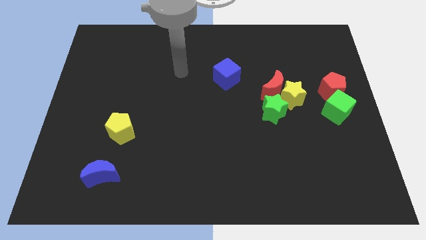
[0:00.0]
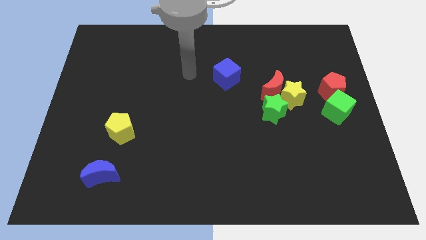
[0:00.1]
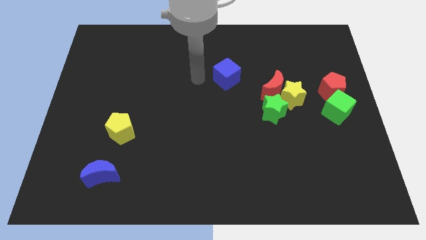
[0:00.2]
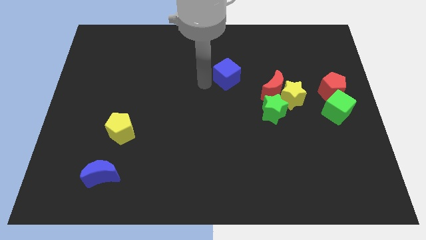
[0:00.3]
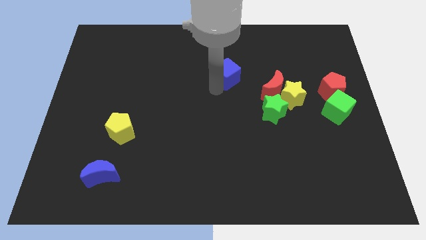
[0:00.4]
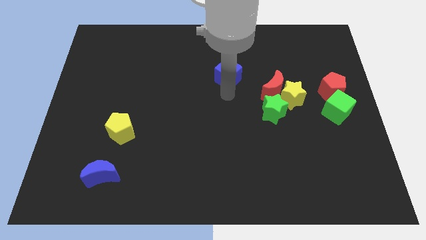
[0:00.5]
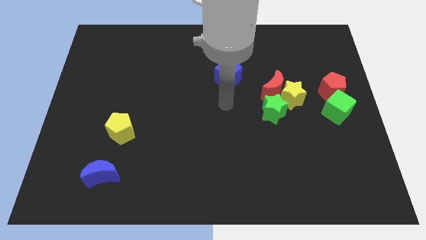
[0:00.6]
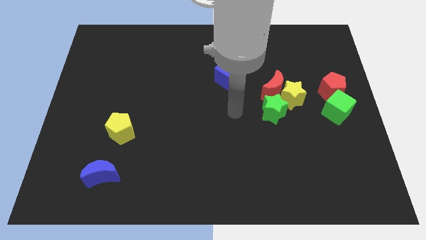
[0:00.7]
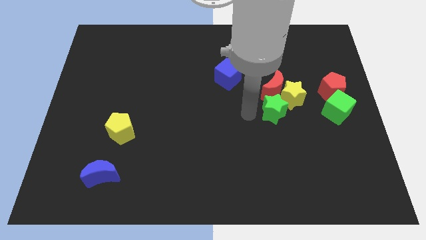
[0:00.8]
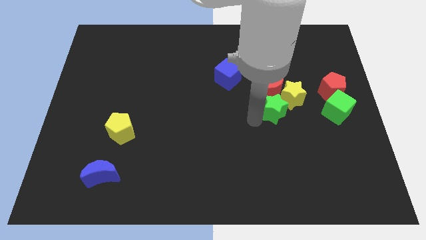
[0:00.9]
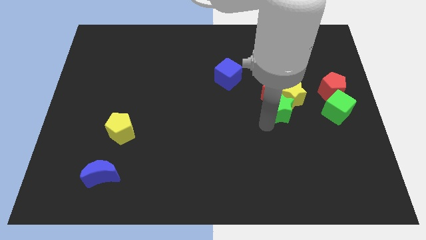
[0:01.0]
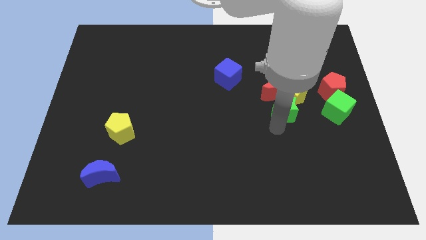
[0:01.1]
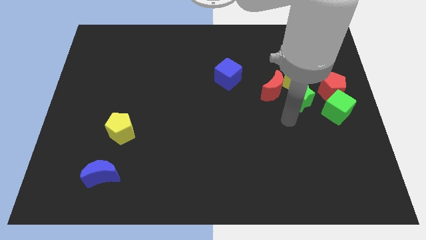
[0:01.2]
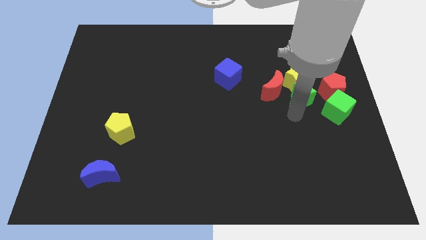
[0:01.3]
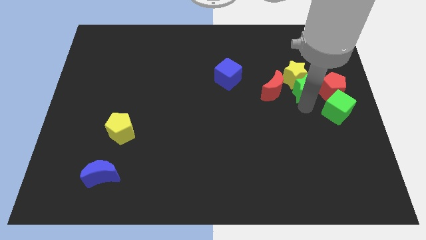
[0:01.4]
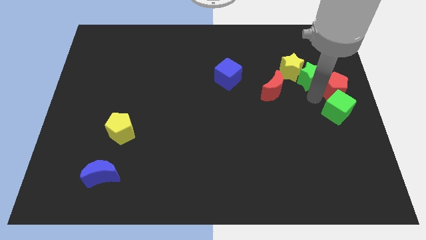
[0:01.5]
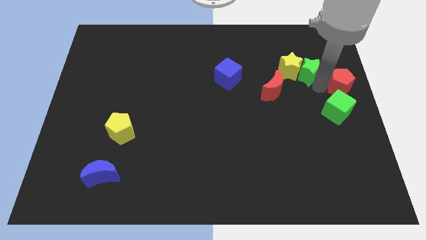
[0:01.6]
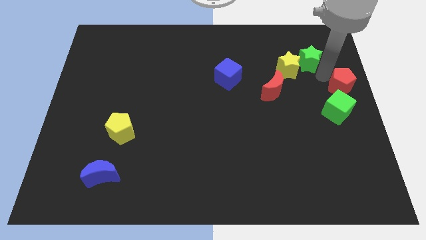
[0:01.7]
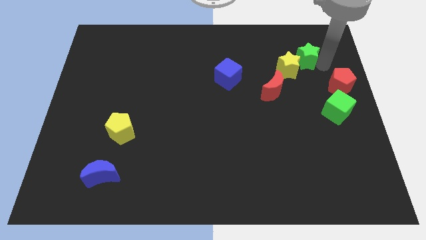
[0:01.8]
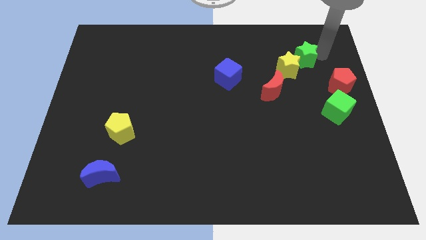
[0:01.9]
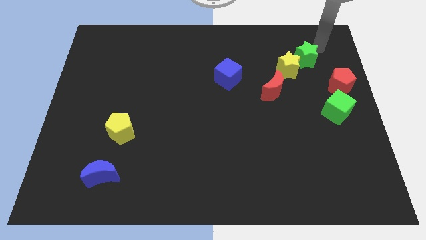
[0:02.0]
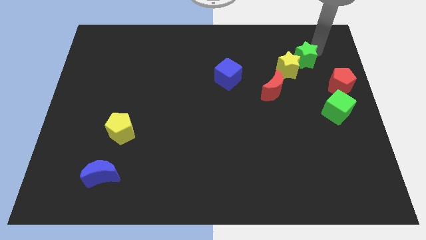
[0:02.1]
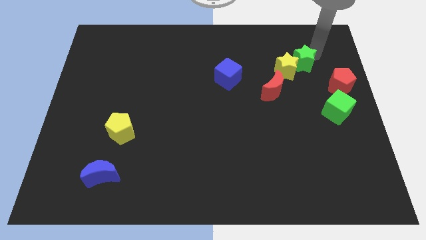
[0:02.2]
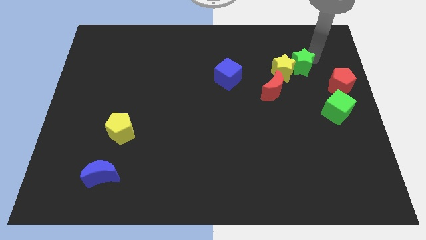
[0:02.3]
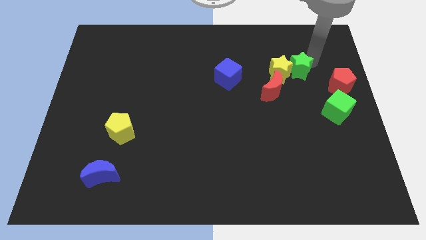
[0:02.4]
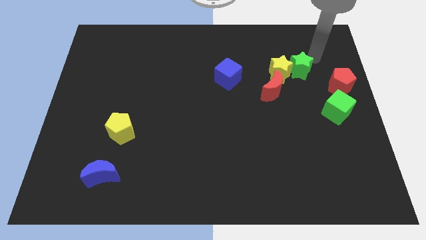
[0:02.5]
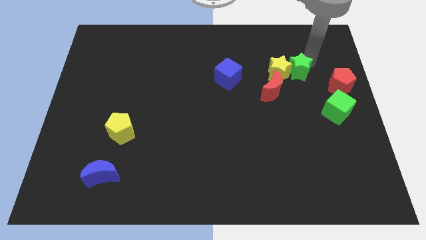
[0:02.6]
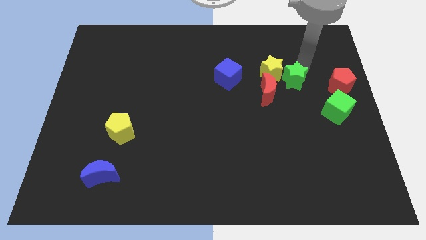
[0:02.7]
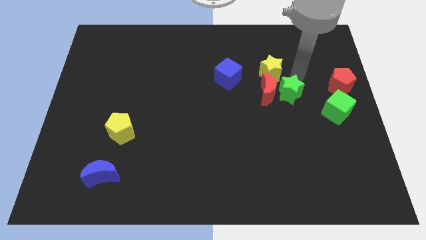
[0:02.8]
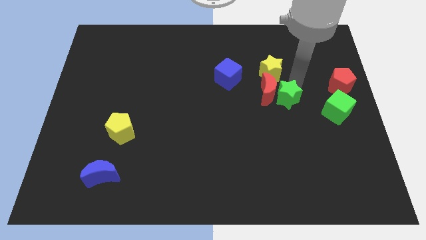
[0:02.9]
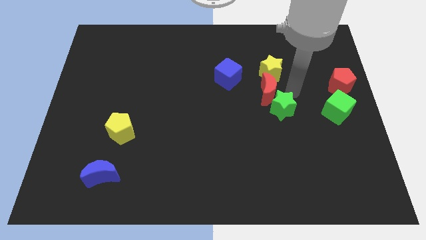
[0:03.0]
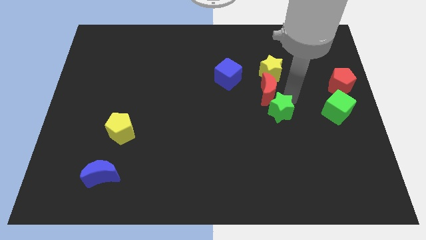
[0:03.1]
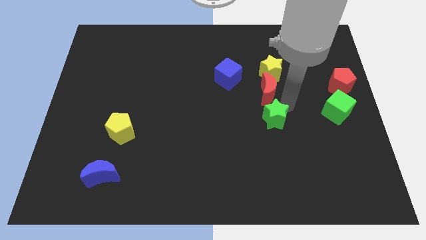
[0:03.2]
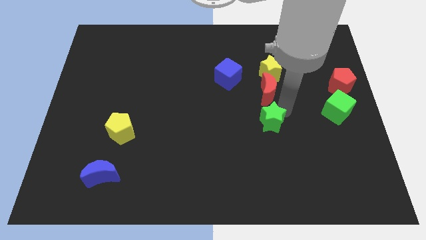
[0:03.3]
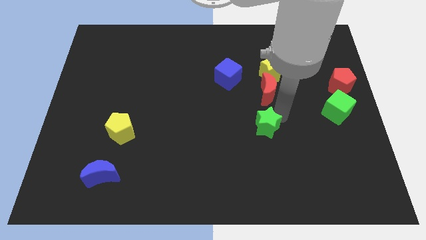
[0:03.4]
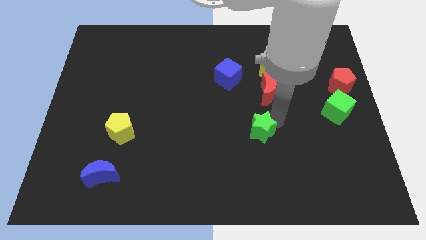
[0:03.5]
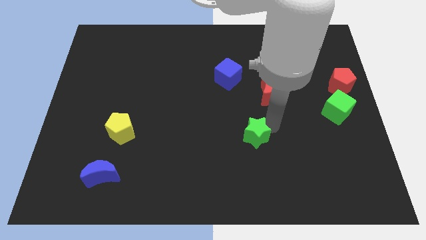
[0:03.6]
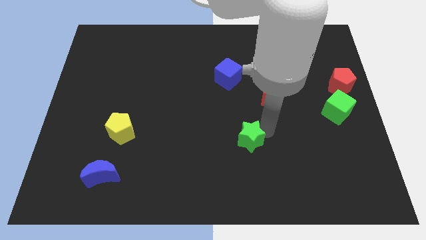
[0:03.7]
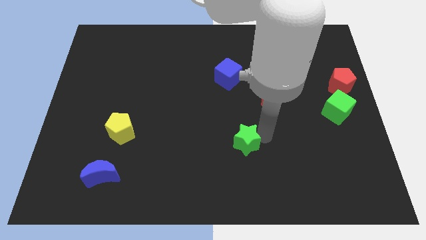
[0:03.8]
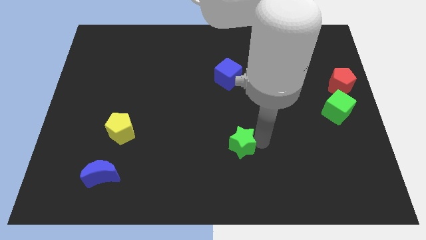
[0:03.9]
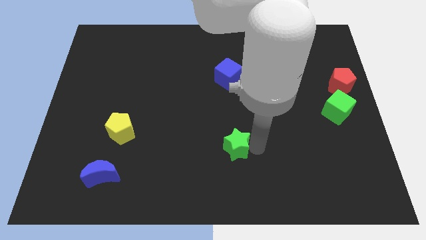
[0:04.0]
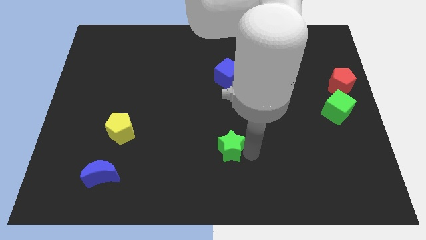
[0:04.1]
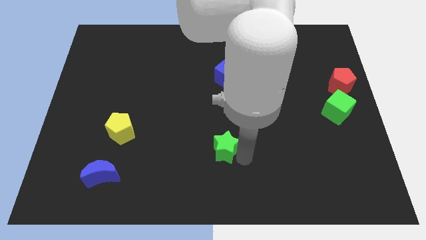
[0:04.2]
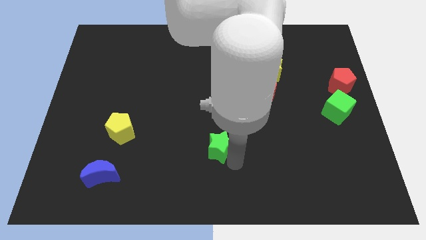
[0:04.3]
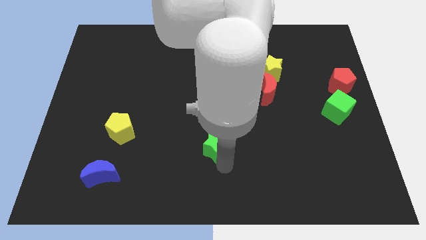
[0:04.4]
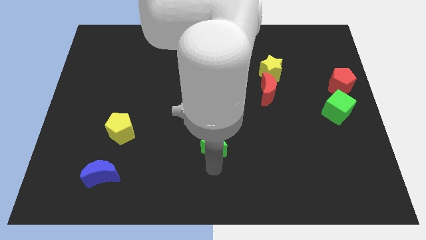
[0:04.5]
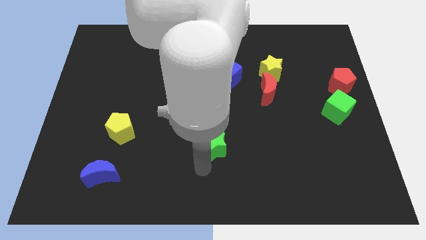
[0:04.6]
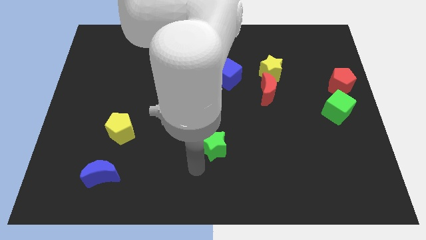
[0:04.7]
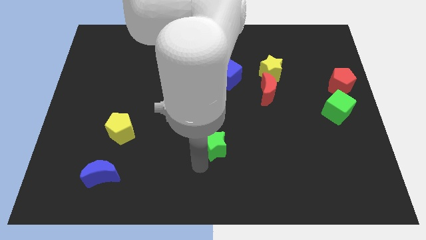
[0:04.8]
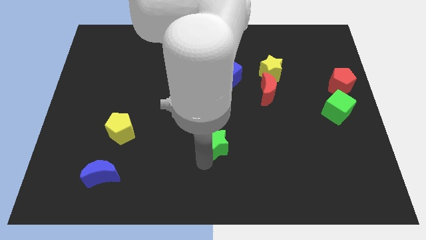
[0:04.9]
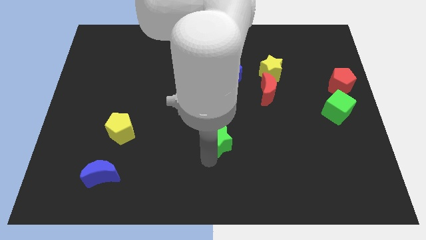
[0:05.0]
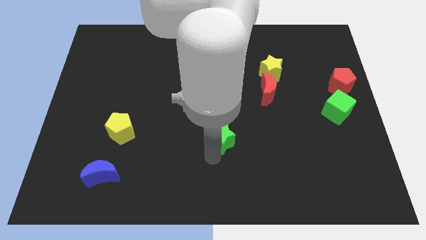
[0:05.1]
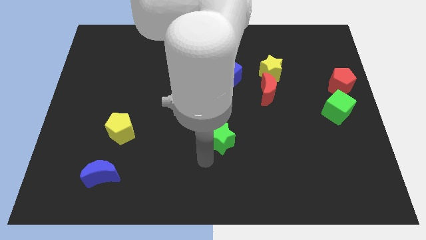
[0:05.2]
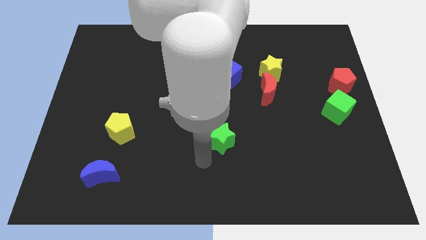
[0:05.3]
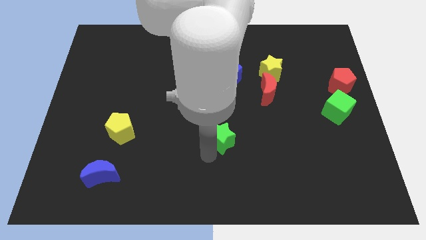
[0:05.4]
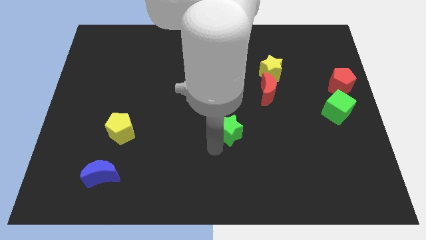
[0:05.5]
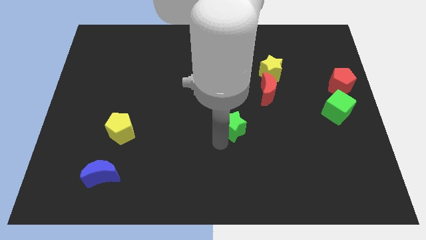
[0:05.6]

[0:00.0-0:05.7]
push the green star to the bottom of the blue cube

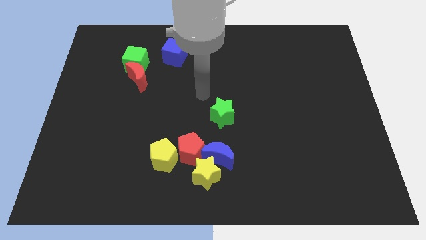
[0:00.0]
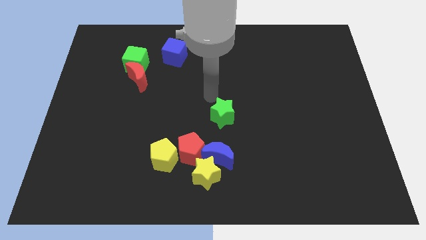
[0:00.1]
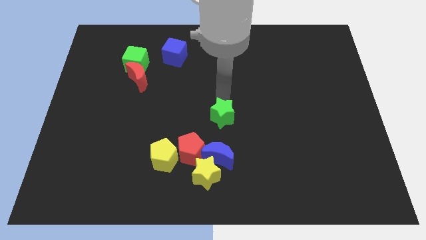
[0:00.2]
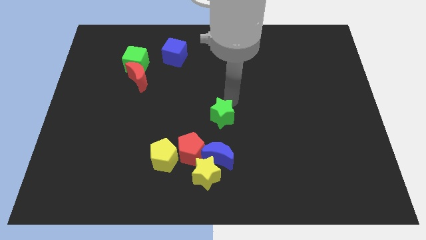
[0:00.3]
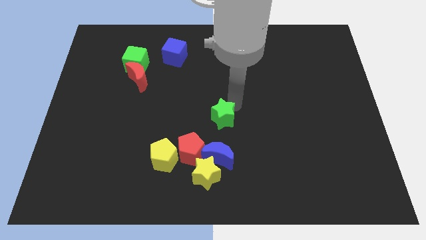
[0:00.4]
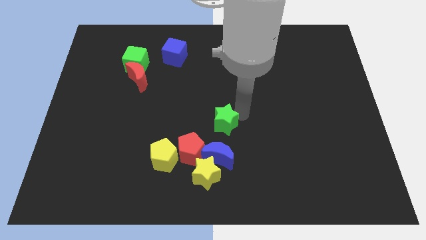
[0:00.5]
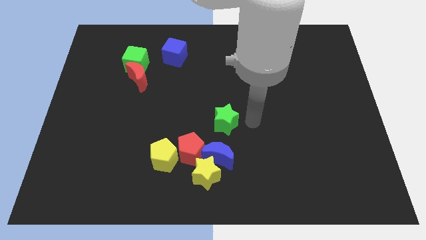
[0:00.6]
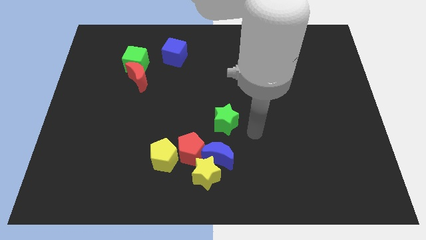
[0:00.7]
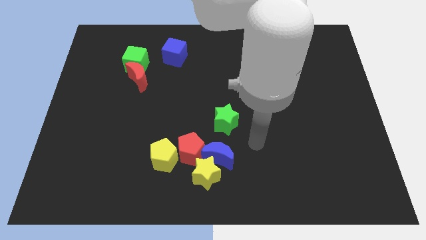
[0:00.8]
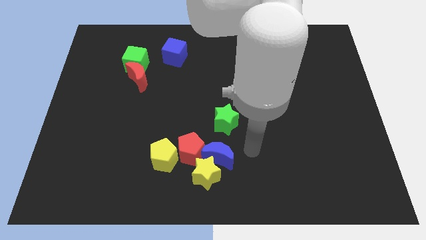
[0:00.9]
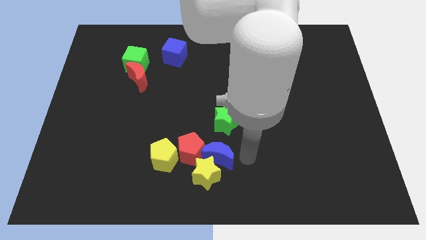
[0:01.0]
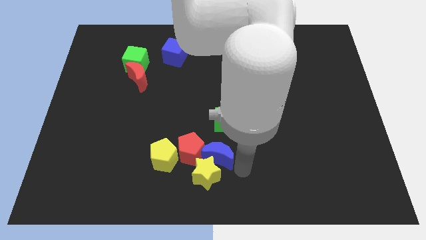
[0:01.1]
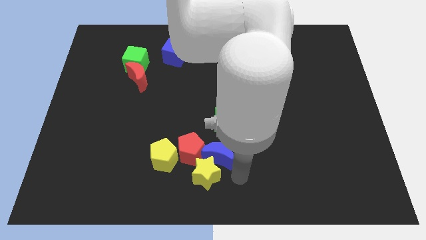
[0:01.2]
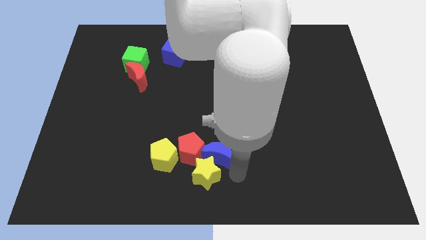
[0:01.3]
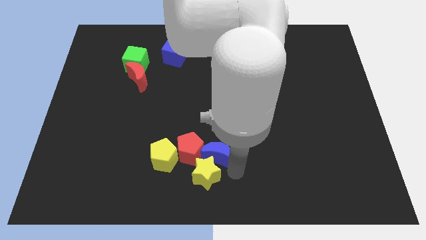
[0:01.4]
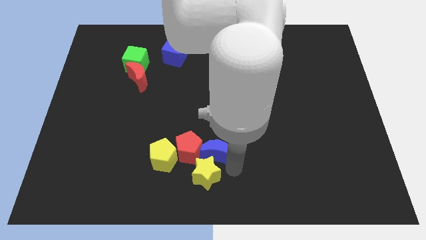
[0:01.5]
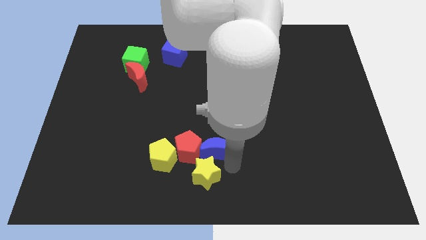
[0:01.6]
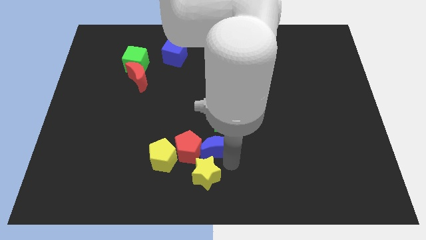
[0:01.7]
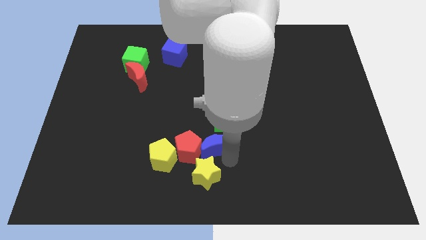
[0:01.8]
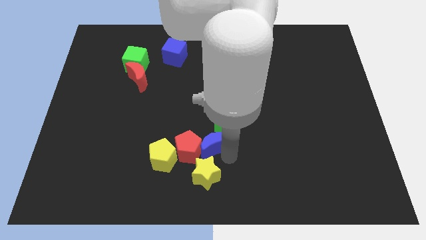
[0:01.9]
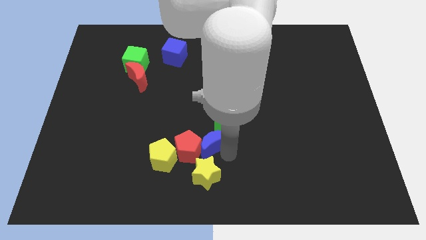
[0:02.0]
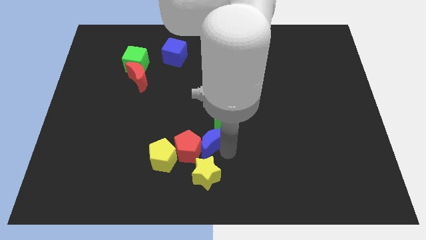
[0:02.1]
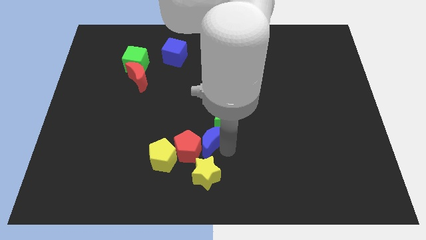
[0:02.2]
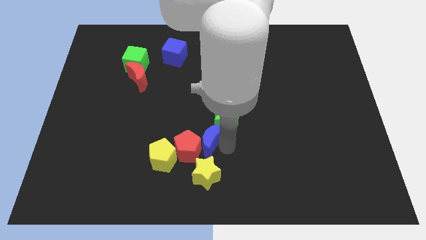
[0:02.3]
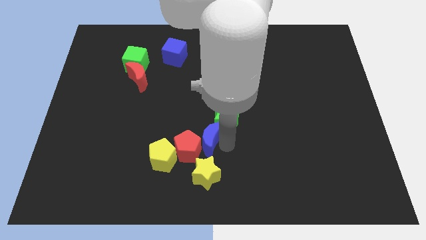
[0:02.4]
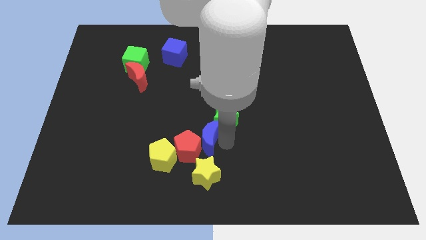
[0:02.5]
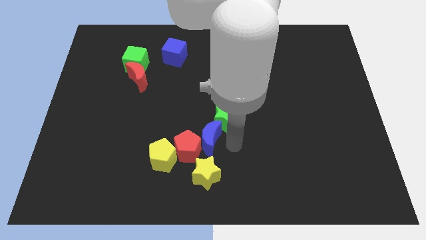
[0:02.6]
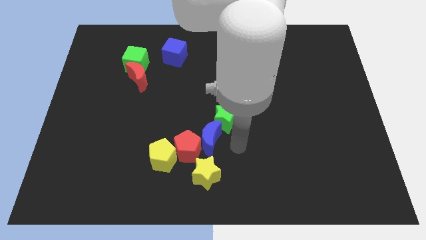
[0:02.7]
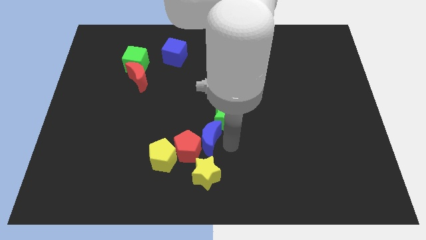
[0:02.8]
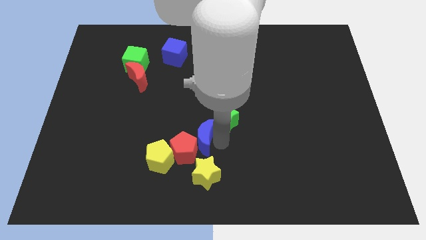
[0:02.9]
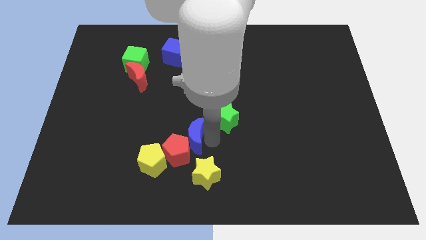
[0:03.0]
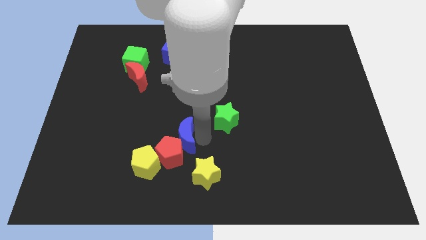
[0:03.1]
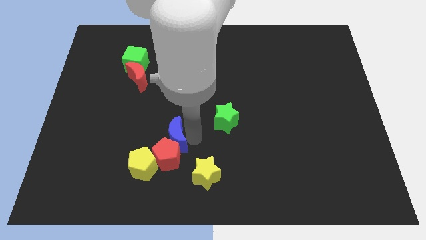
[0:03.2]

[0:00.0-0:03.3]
slide the blue moon diagonally up and to the left of the red pentagon

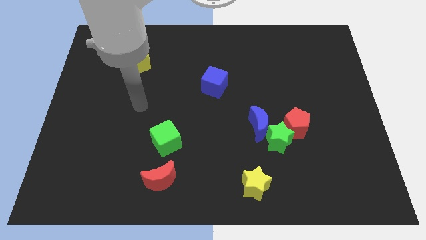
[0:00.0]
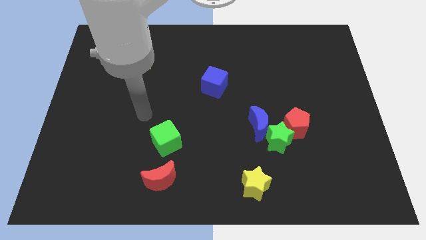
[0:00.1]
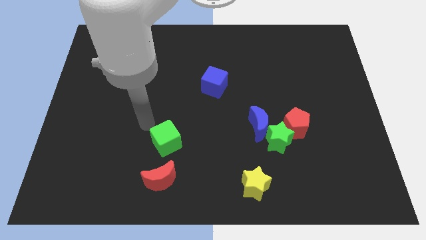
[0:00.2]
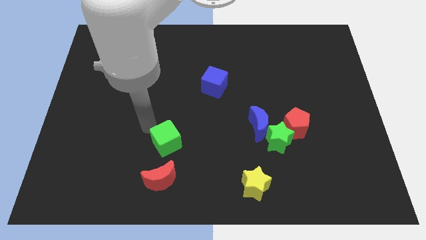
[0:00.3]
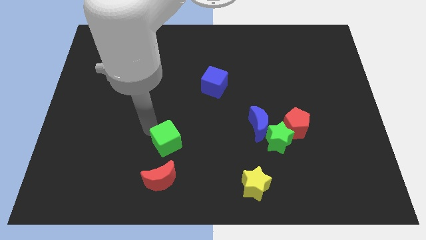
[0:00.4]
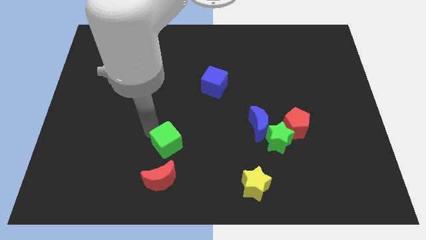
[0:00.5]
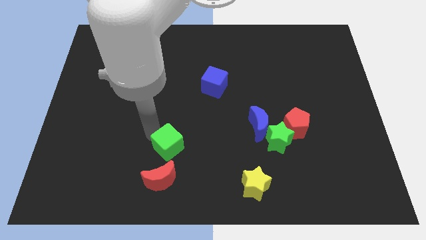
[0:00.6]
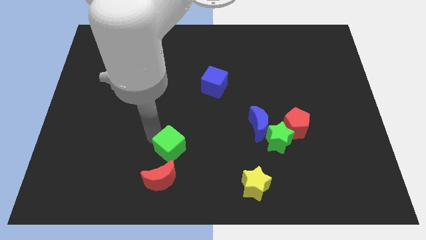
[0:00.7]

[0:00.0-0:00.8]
put the green cube to the top right side of the red moon
